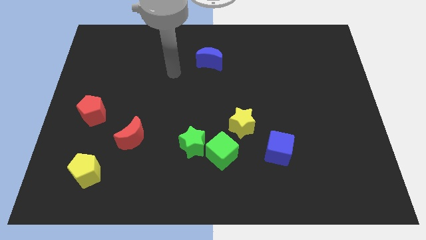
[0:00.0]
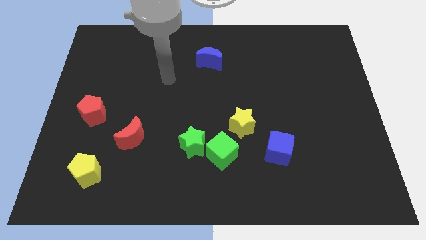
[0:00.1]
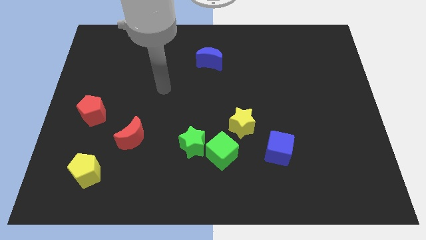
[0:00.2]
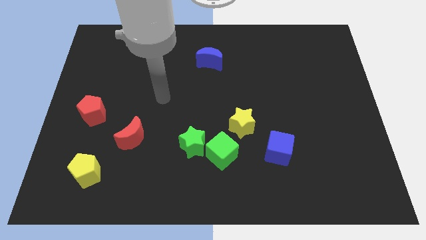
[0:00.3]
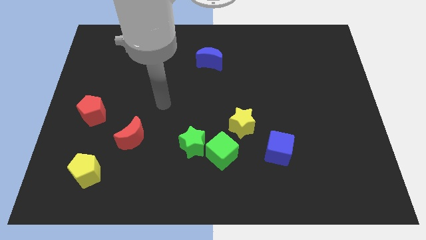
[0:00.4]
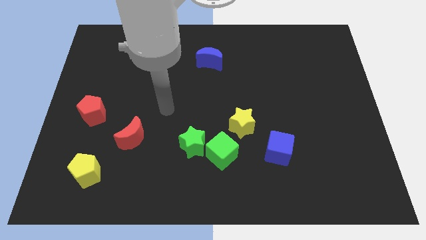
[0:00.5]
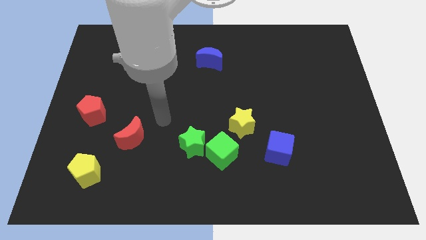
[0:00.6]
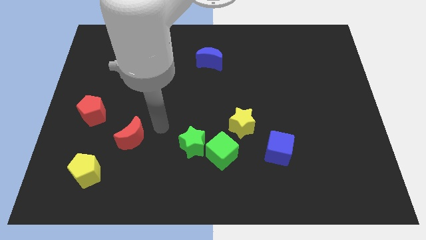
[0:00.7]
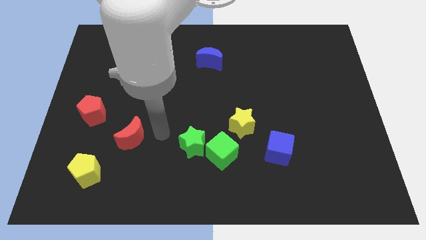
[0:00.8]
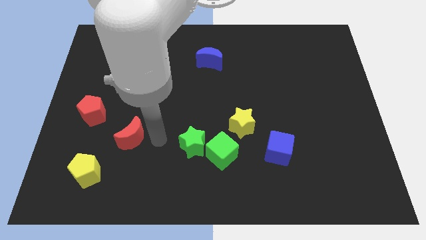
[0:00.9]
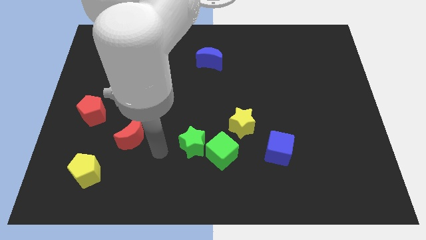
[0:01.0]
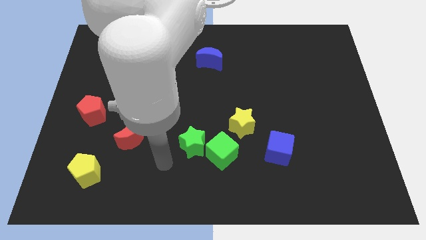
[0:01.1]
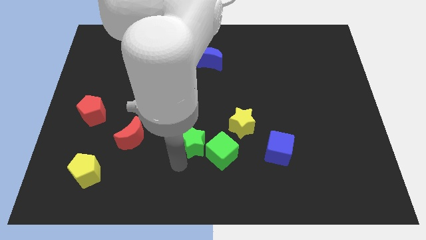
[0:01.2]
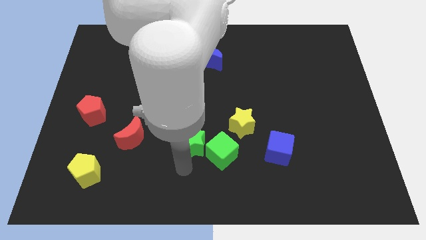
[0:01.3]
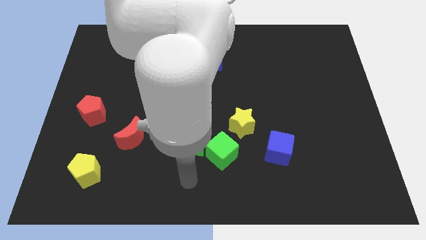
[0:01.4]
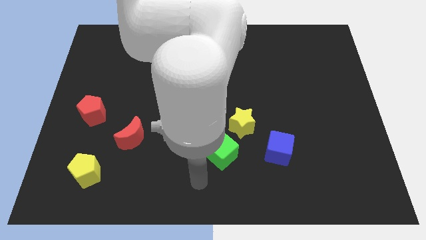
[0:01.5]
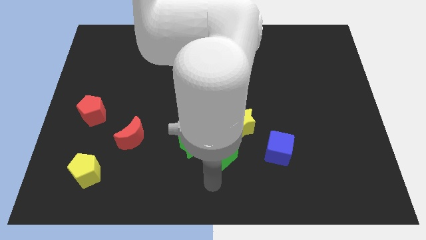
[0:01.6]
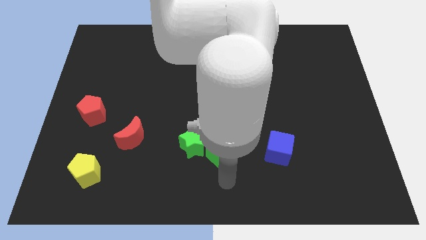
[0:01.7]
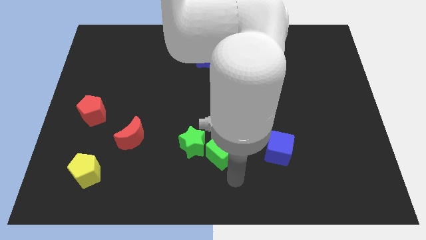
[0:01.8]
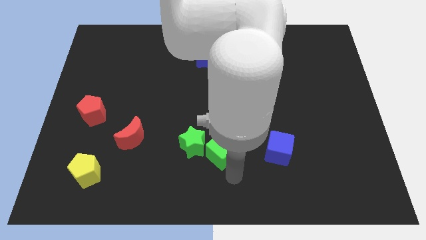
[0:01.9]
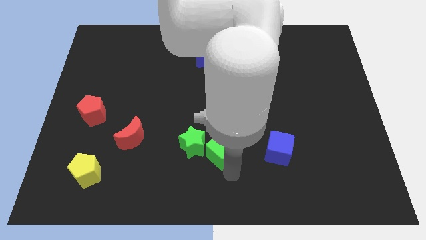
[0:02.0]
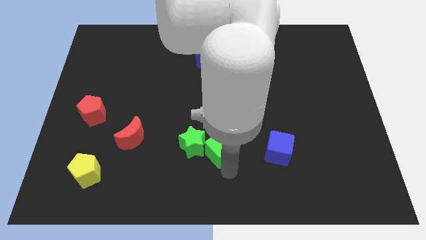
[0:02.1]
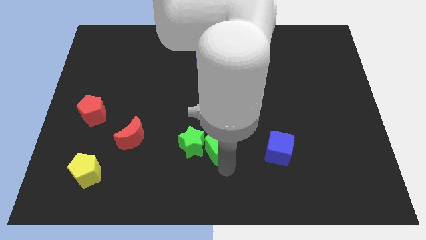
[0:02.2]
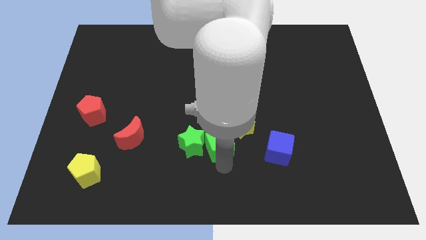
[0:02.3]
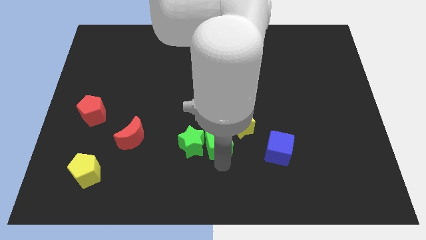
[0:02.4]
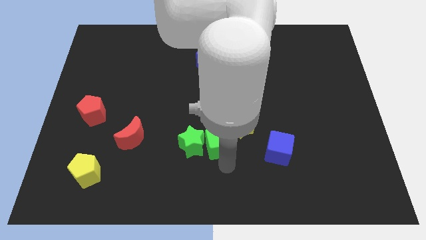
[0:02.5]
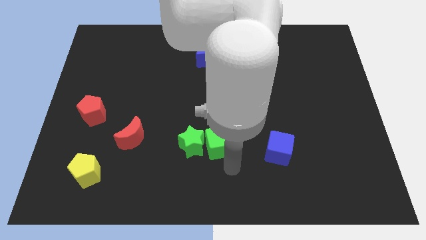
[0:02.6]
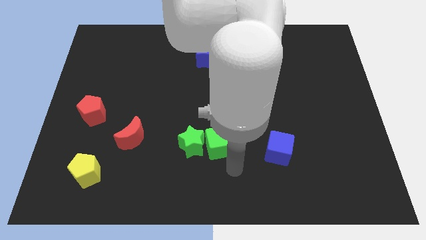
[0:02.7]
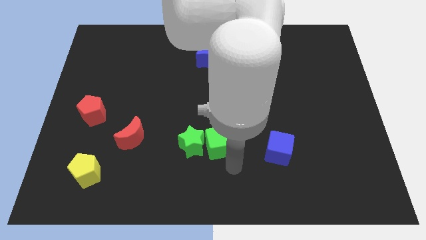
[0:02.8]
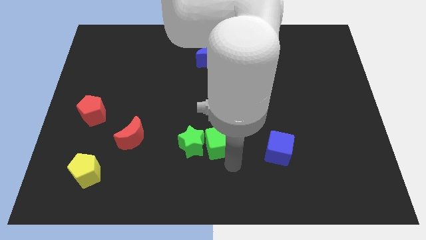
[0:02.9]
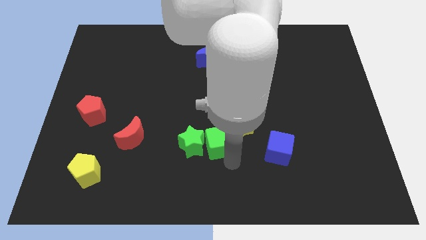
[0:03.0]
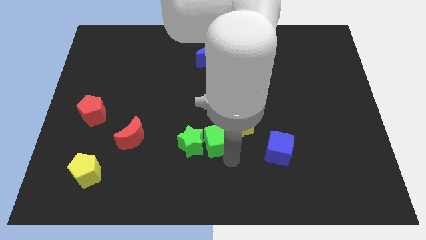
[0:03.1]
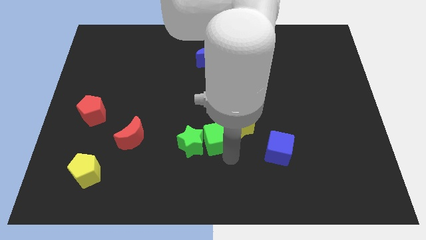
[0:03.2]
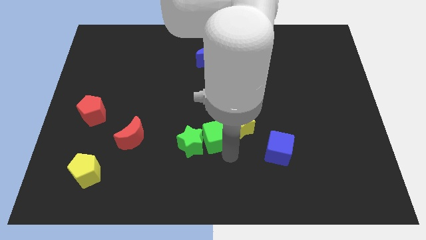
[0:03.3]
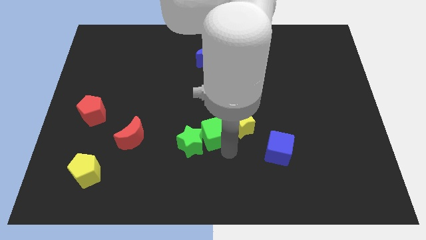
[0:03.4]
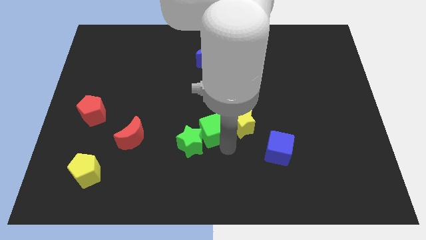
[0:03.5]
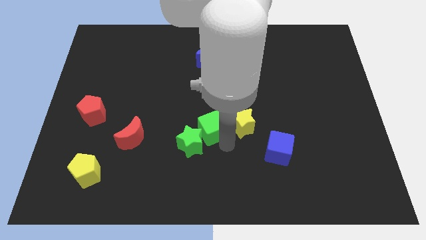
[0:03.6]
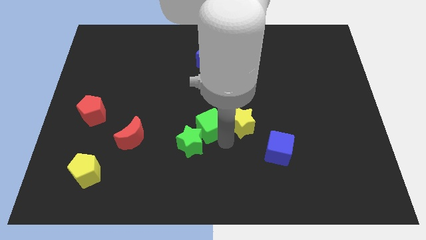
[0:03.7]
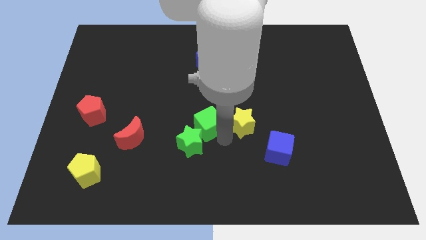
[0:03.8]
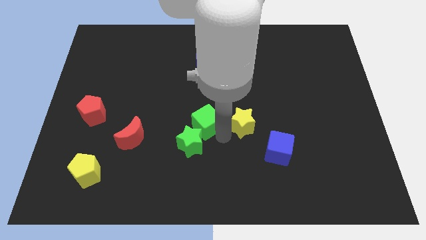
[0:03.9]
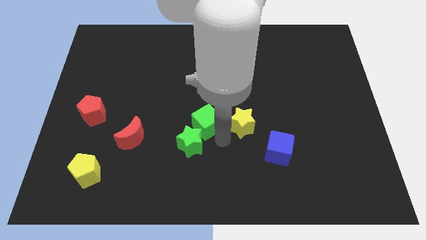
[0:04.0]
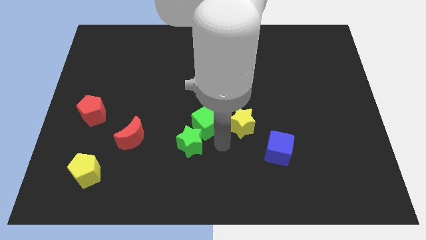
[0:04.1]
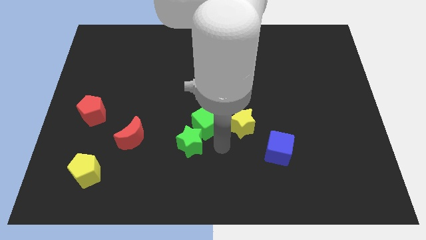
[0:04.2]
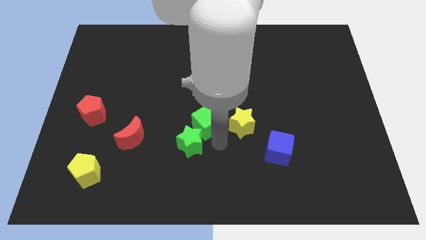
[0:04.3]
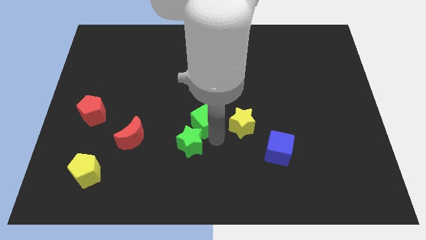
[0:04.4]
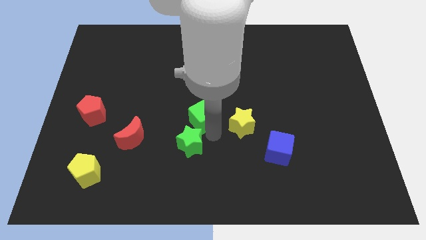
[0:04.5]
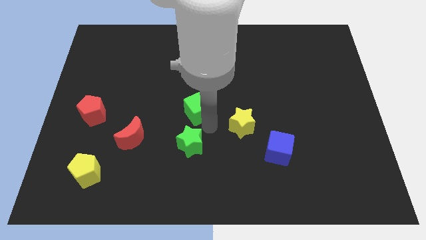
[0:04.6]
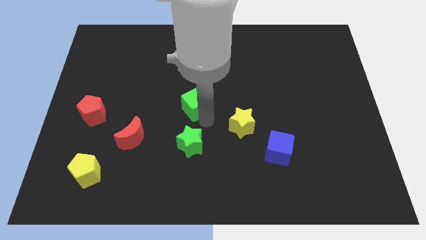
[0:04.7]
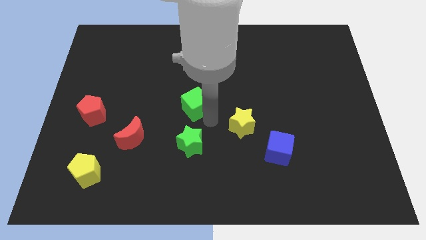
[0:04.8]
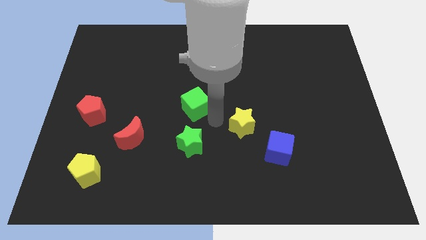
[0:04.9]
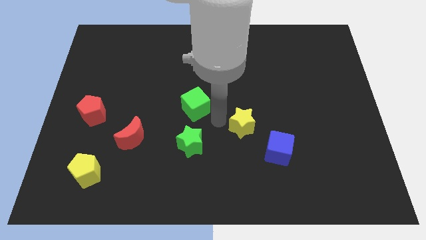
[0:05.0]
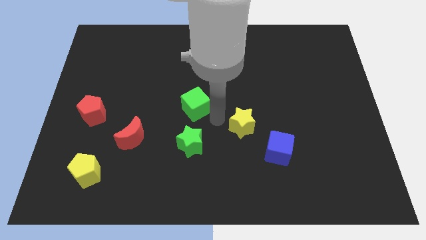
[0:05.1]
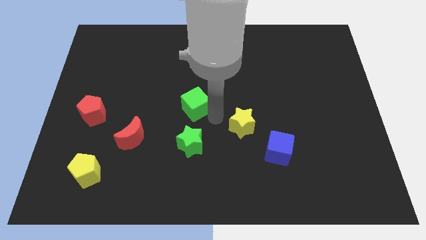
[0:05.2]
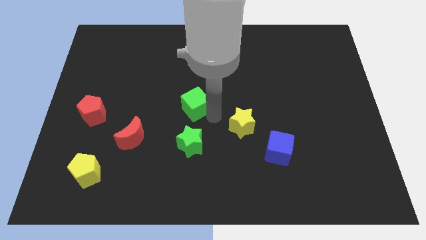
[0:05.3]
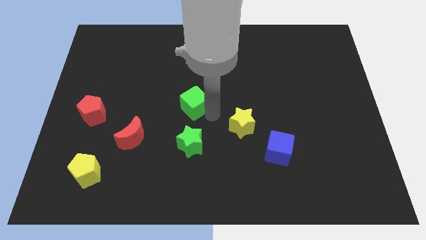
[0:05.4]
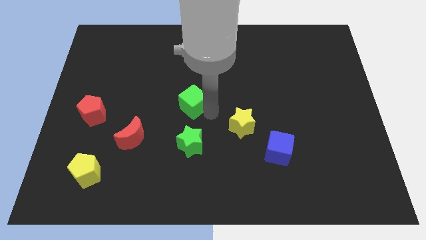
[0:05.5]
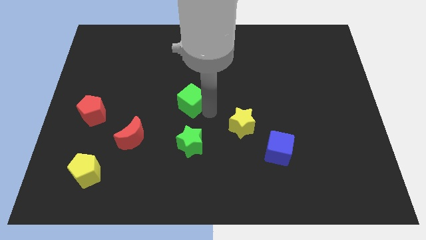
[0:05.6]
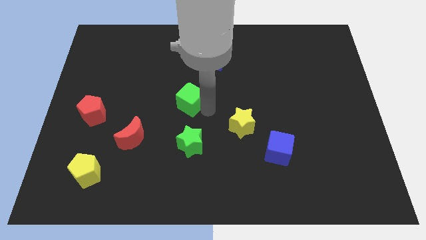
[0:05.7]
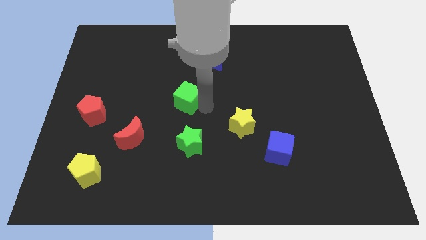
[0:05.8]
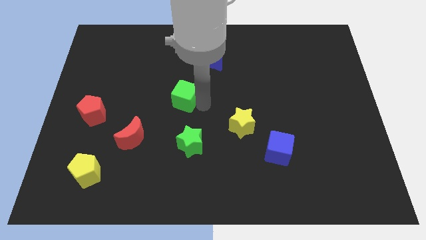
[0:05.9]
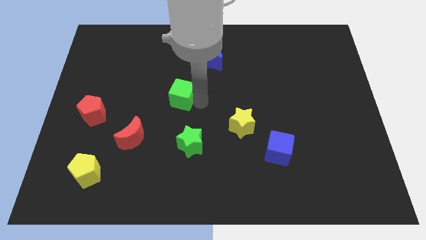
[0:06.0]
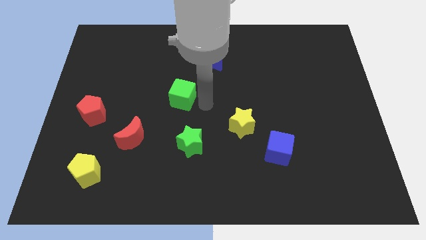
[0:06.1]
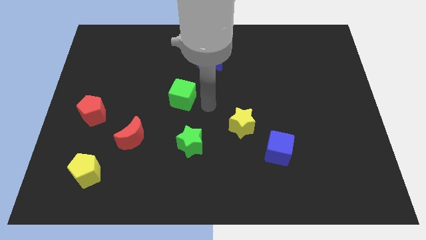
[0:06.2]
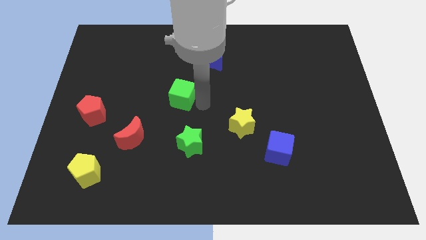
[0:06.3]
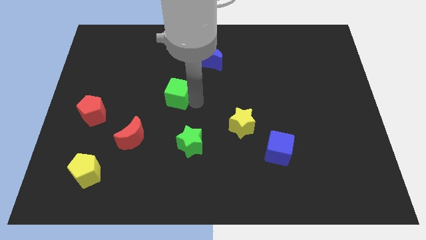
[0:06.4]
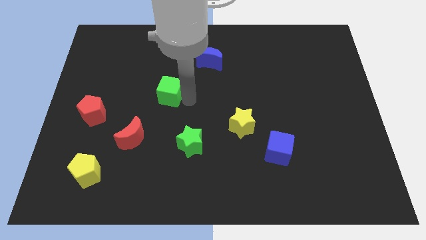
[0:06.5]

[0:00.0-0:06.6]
move the green cube upwards and to the left diagonally

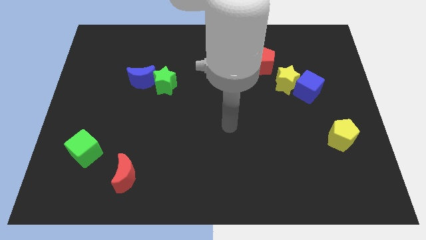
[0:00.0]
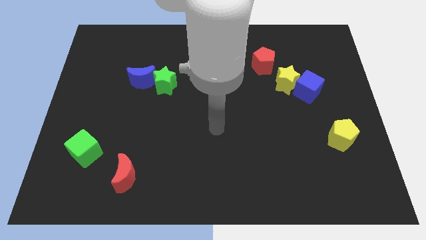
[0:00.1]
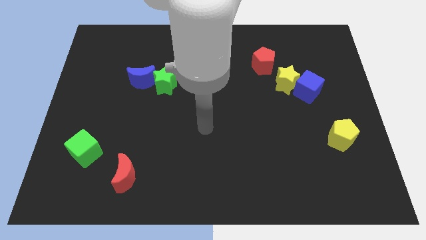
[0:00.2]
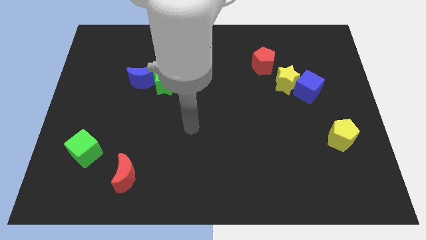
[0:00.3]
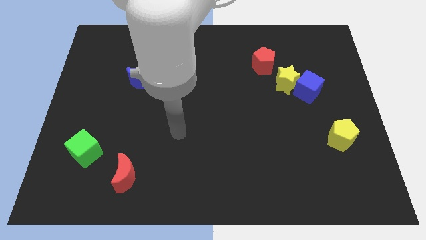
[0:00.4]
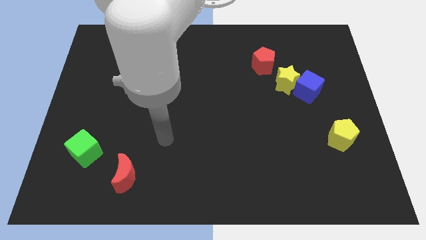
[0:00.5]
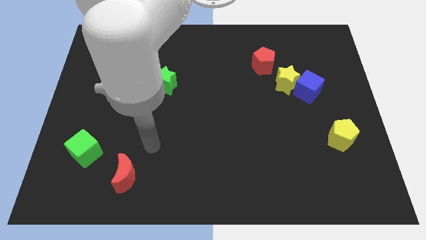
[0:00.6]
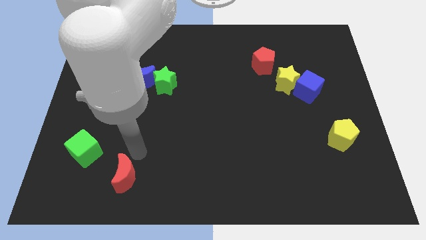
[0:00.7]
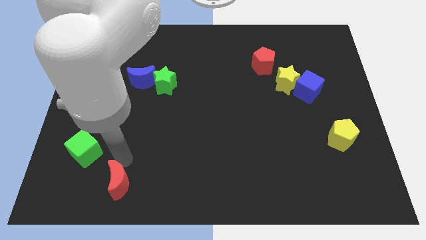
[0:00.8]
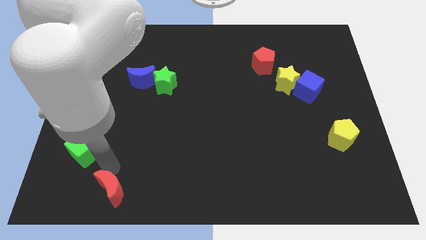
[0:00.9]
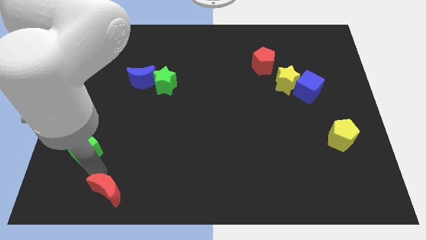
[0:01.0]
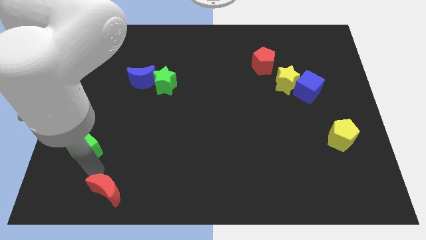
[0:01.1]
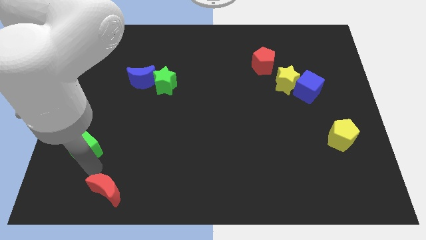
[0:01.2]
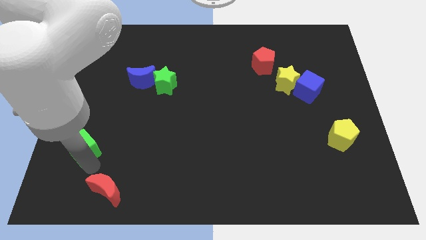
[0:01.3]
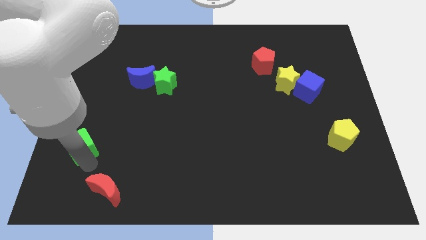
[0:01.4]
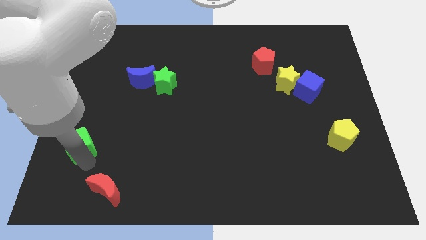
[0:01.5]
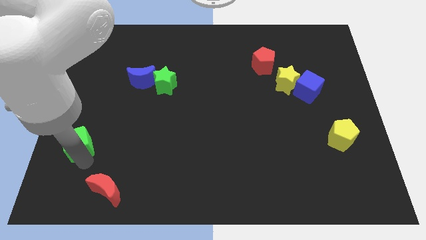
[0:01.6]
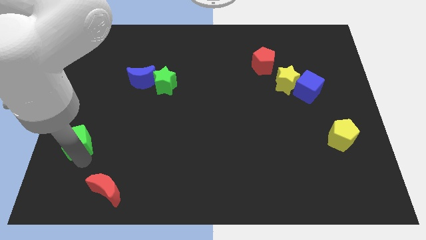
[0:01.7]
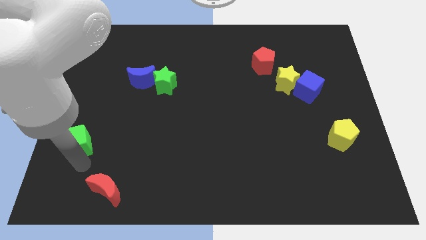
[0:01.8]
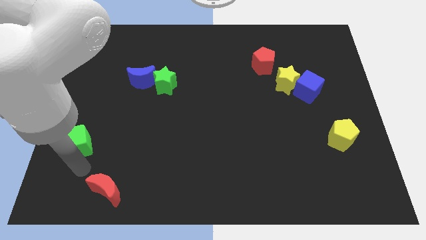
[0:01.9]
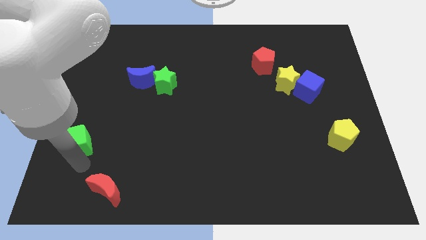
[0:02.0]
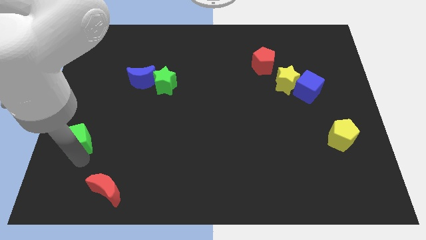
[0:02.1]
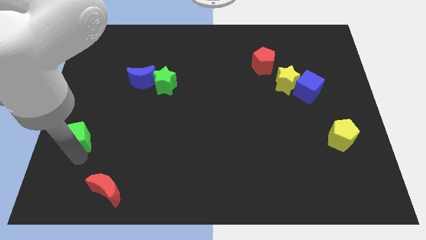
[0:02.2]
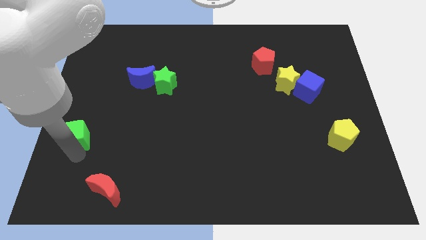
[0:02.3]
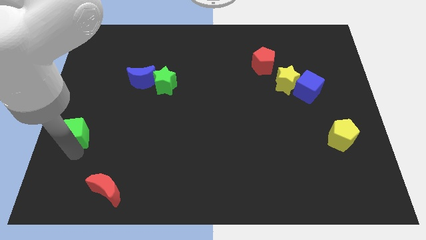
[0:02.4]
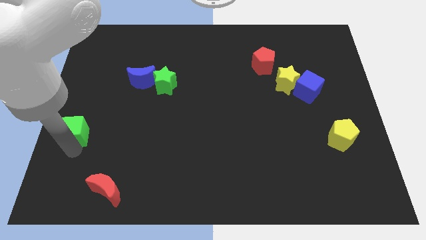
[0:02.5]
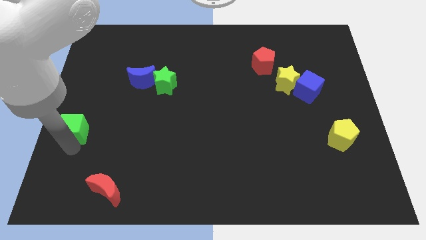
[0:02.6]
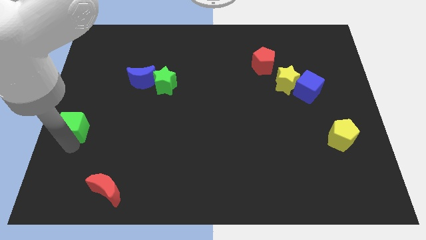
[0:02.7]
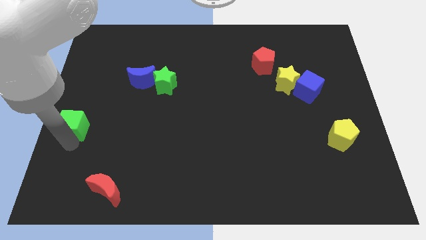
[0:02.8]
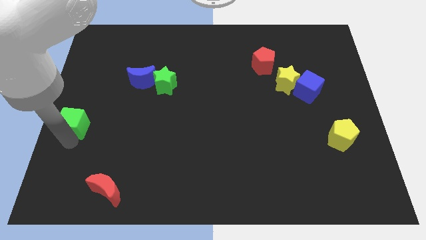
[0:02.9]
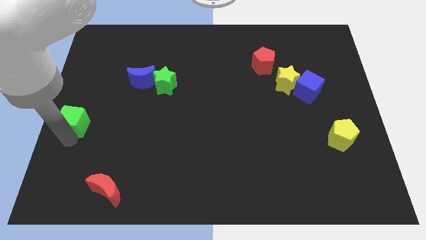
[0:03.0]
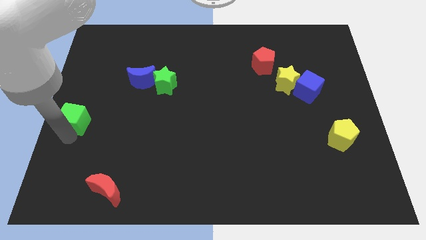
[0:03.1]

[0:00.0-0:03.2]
slightly slide the green cube up
